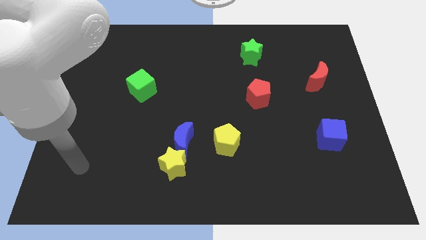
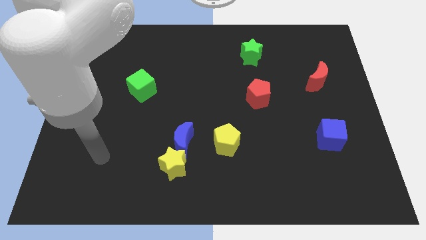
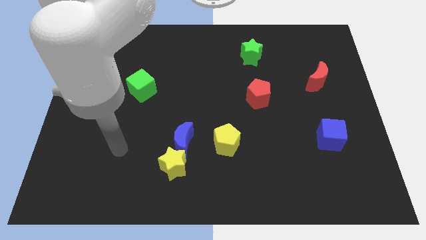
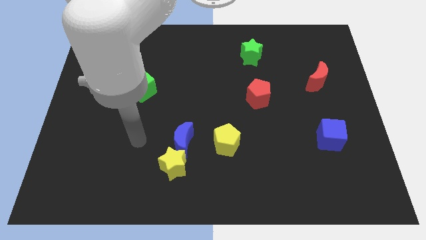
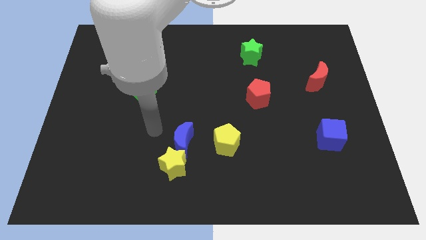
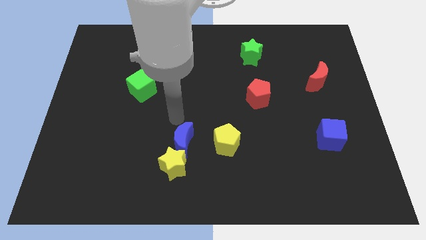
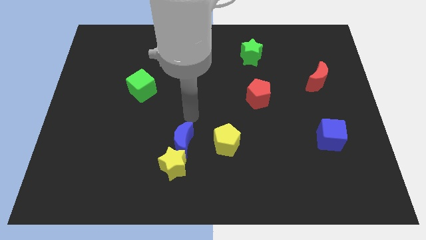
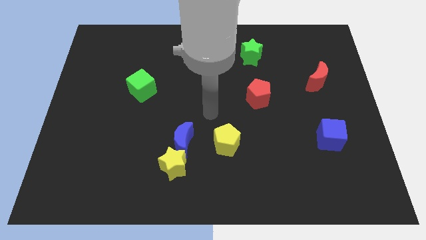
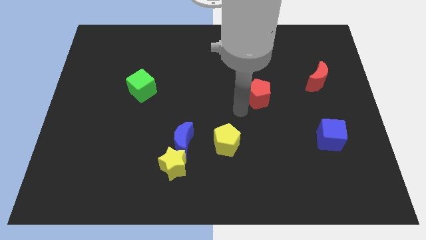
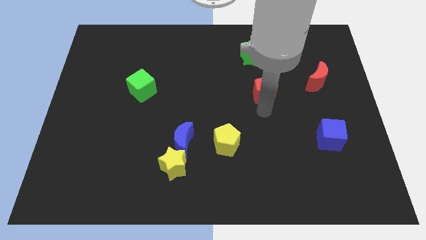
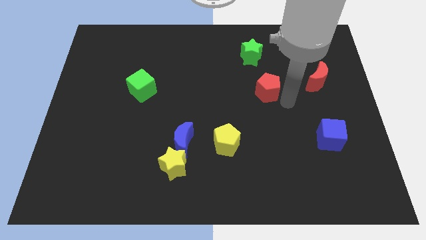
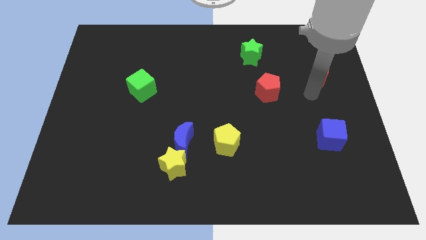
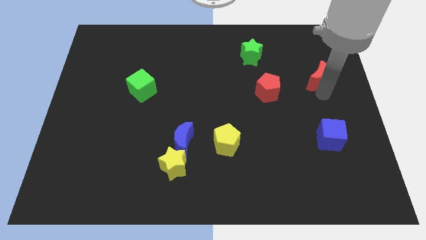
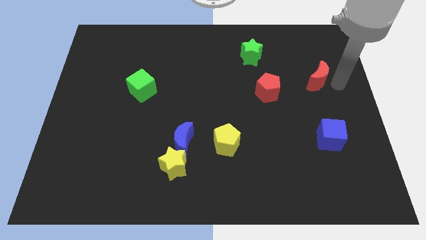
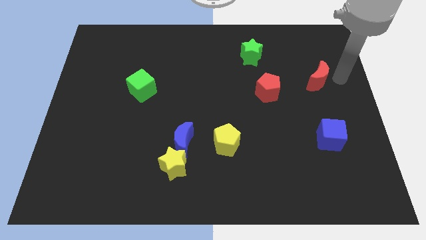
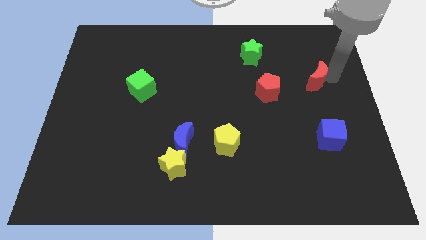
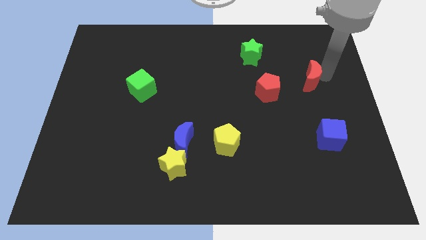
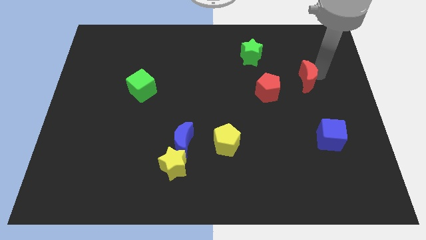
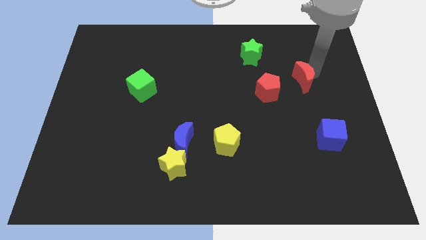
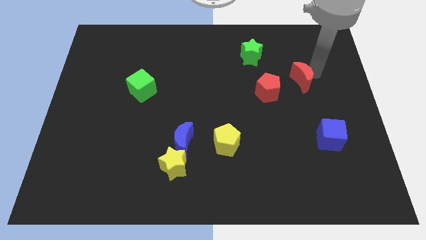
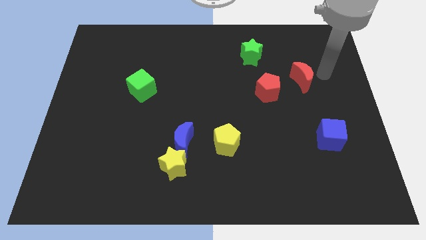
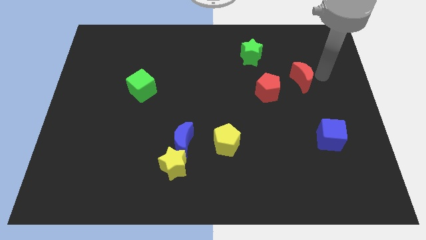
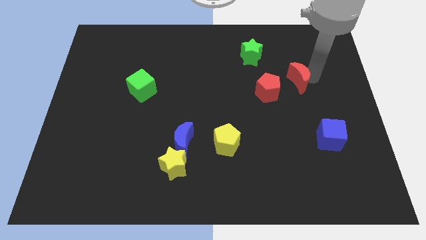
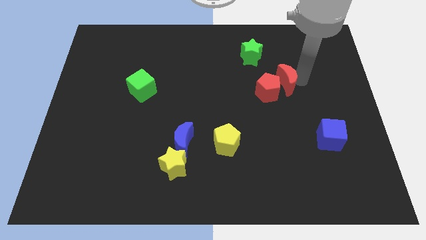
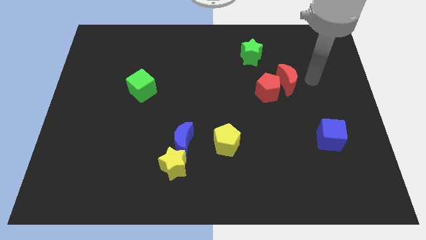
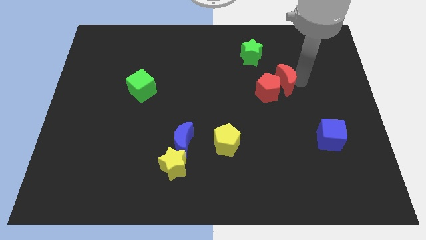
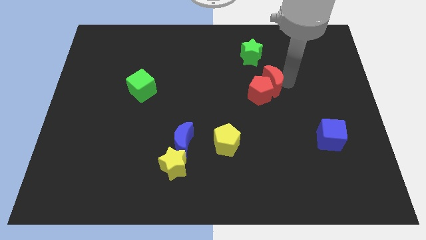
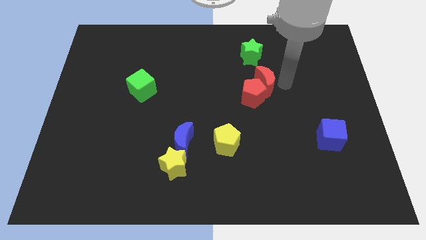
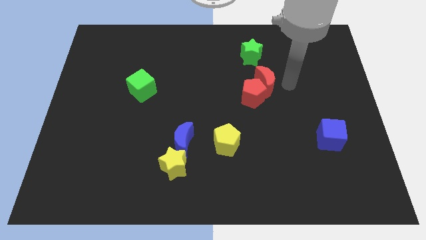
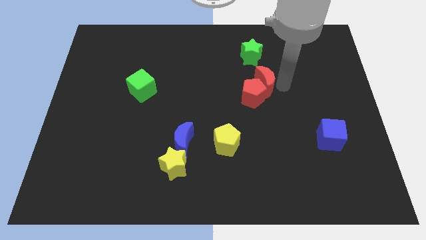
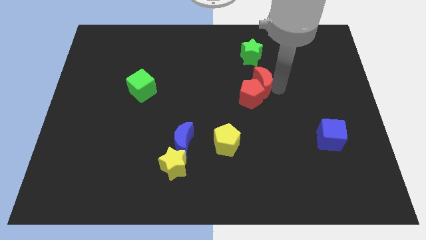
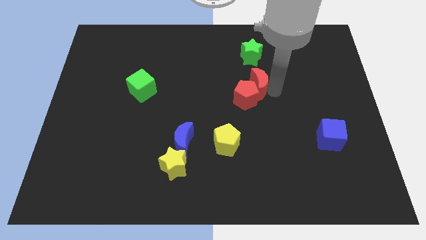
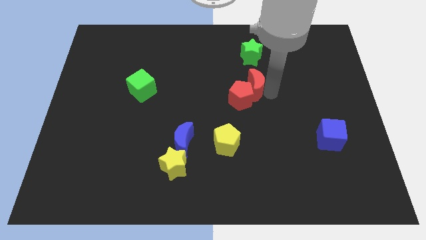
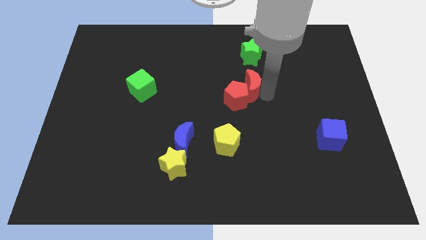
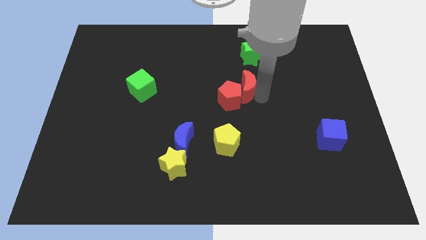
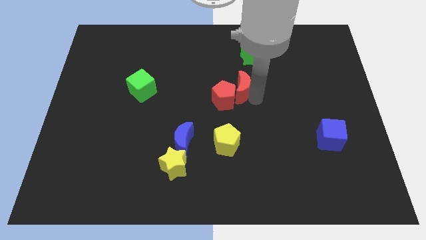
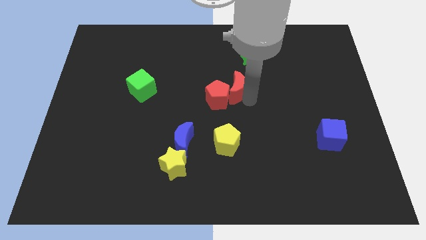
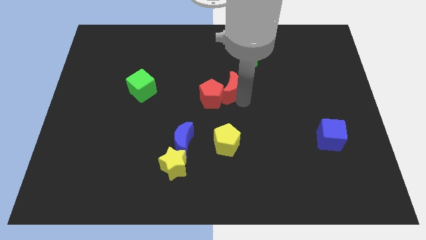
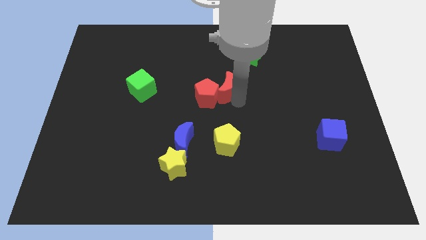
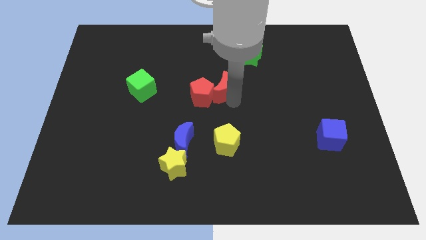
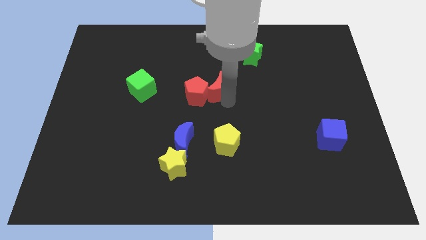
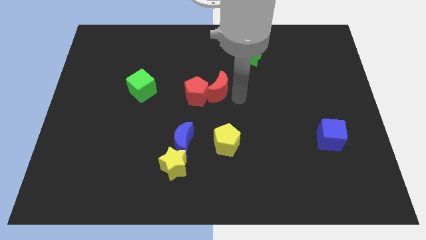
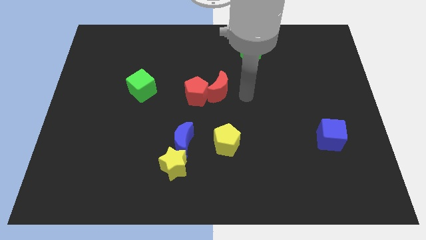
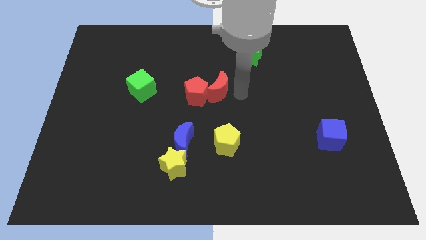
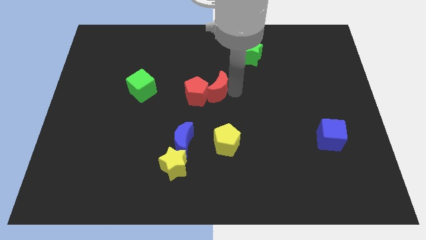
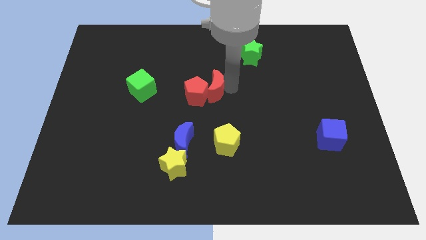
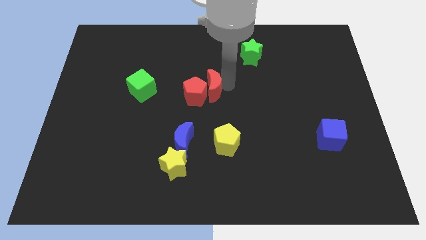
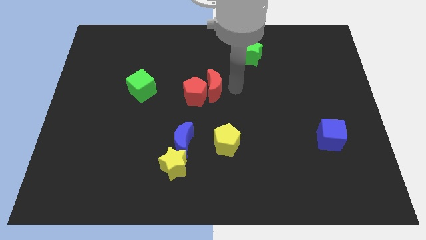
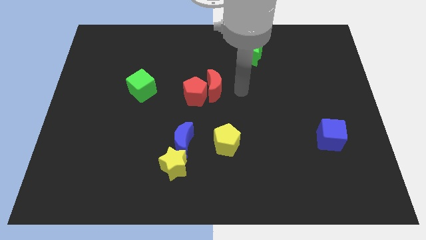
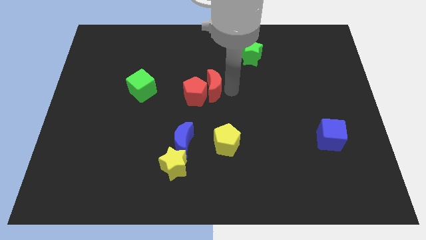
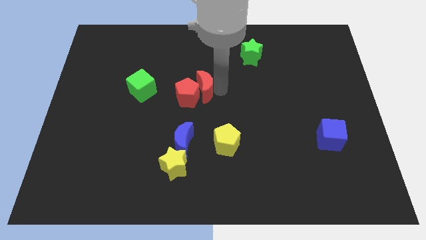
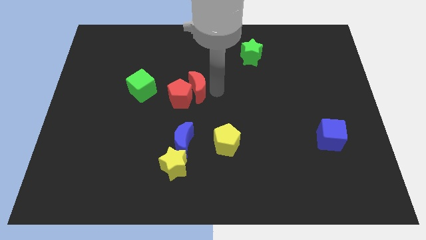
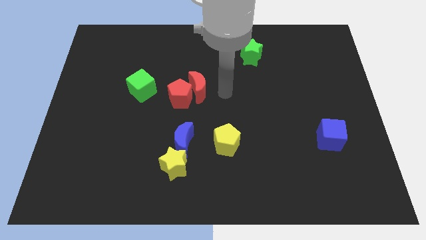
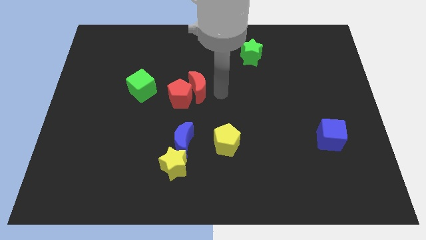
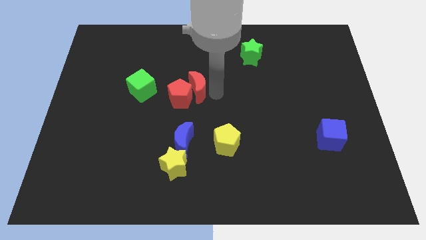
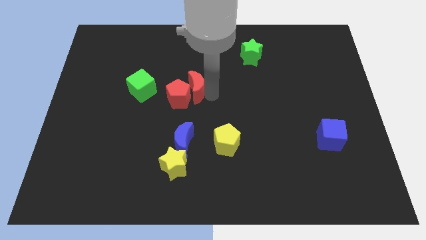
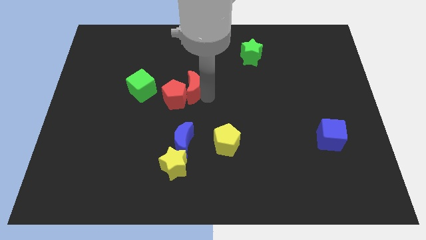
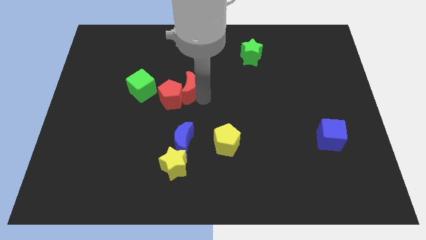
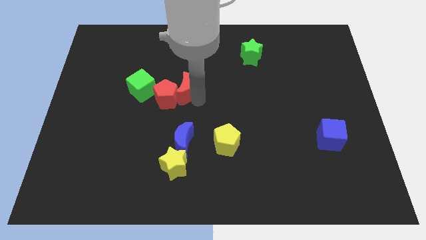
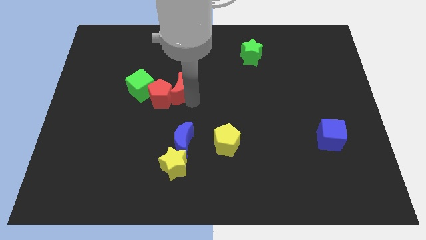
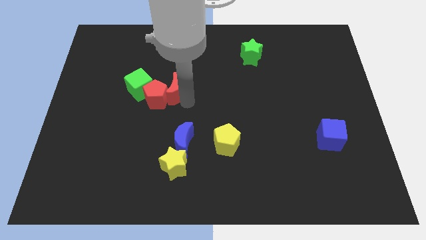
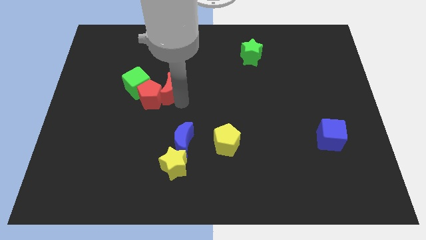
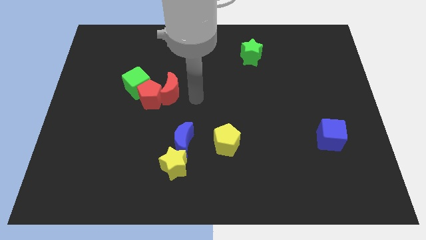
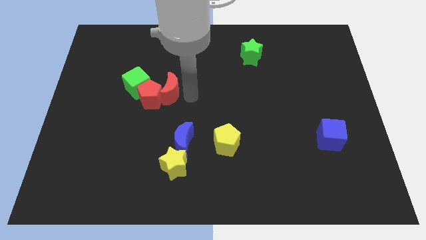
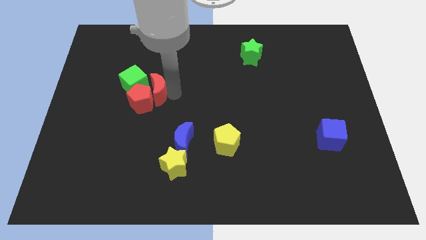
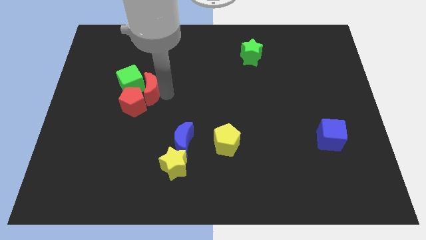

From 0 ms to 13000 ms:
put the red moon to the green cube

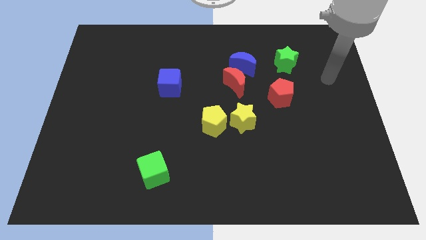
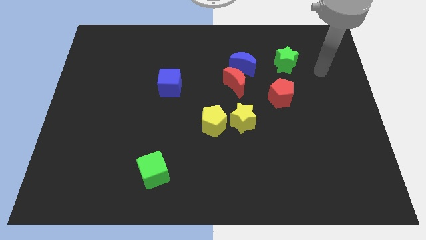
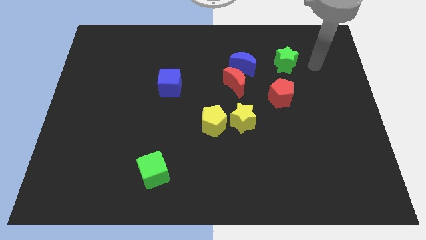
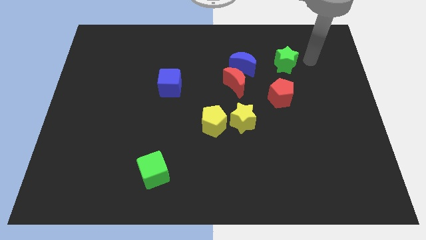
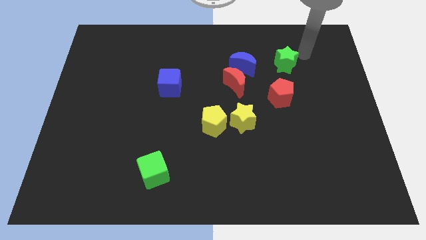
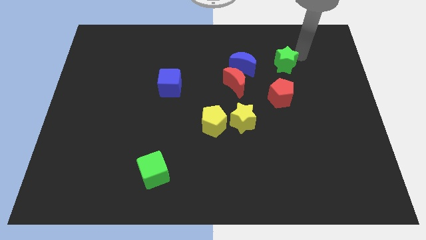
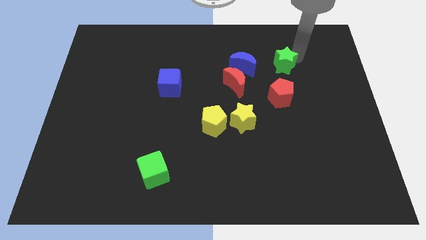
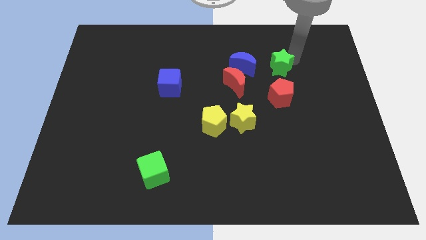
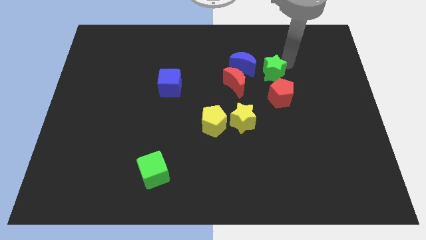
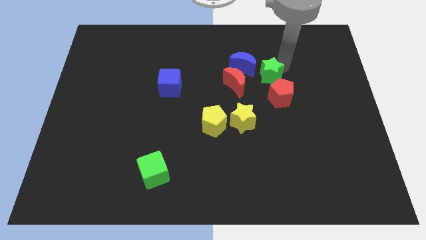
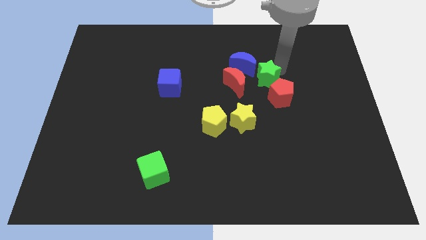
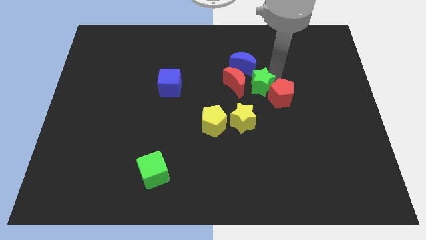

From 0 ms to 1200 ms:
slide the green star towards the red moon
